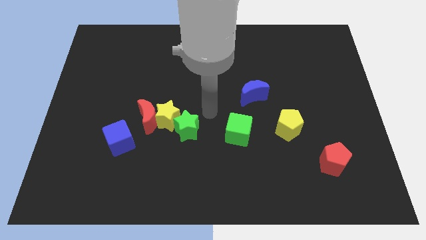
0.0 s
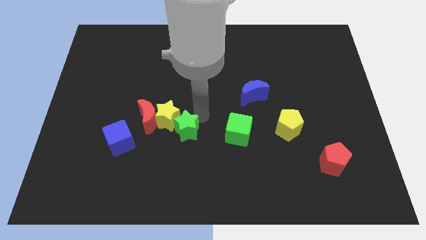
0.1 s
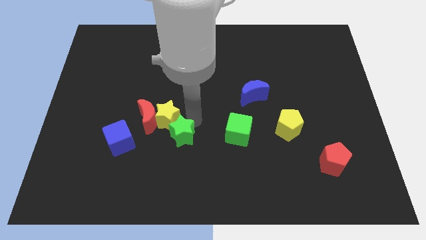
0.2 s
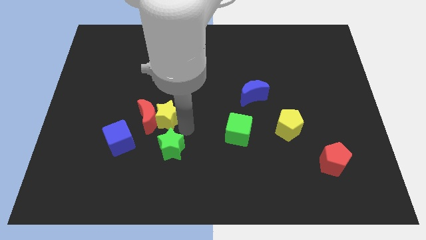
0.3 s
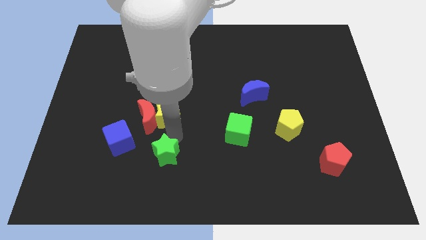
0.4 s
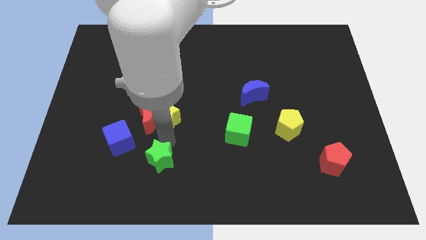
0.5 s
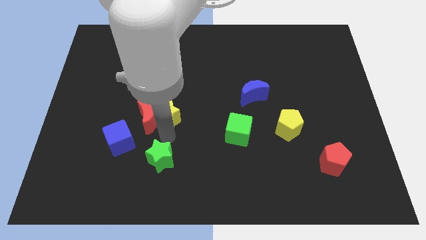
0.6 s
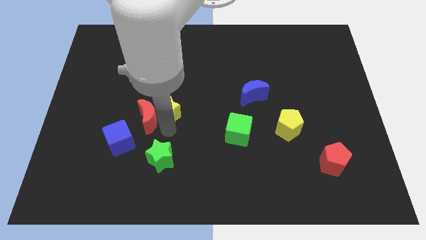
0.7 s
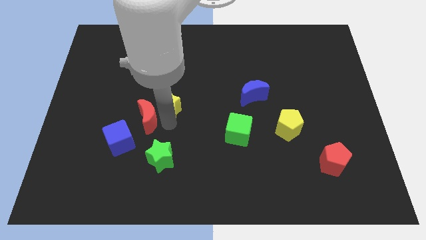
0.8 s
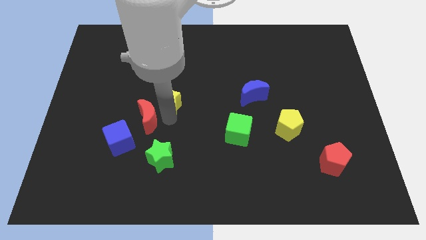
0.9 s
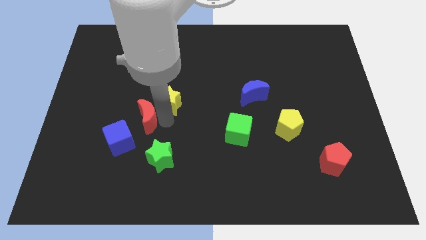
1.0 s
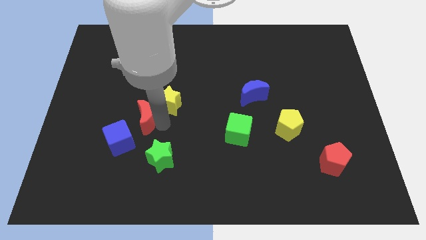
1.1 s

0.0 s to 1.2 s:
move the yellow star away from the red moon and green star

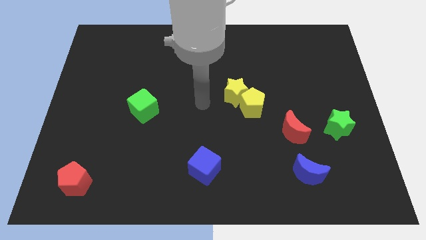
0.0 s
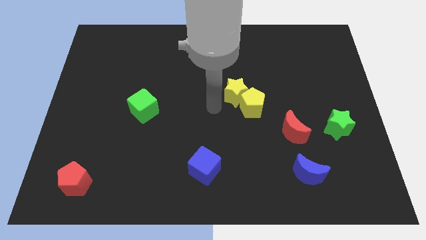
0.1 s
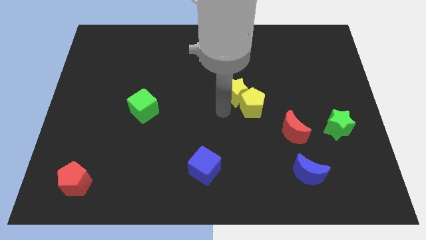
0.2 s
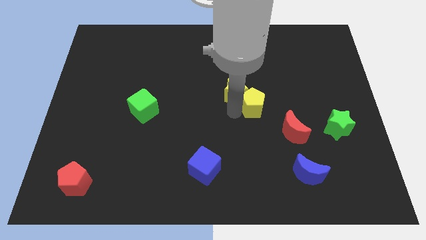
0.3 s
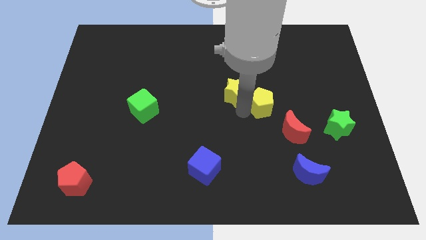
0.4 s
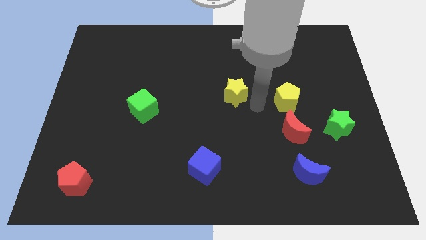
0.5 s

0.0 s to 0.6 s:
separate the yellow star from the yellow pentagon

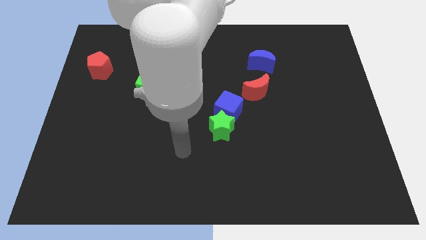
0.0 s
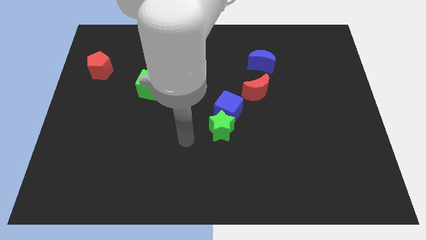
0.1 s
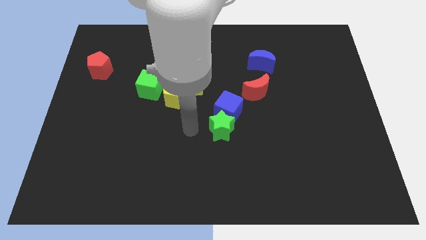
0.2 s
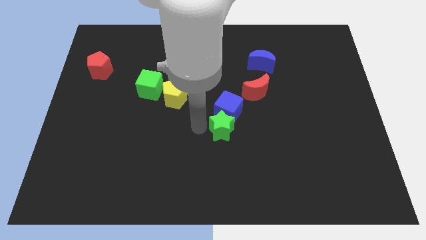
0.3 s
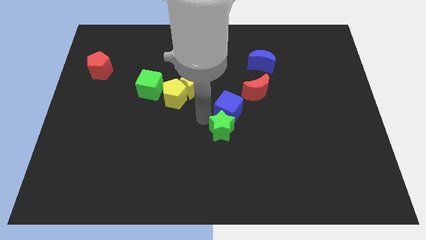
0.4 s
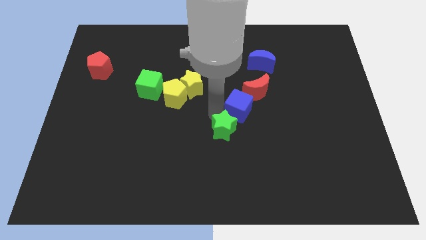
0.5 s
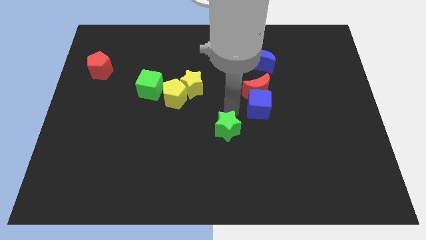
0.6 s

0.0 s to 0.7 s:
pull the green star apart from the blue cube

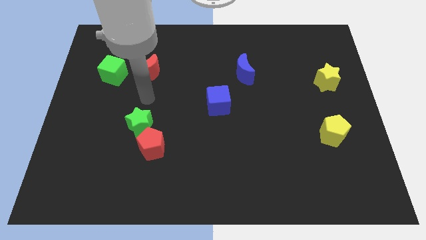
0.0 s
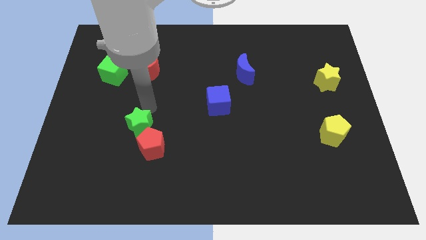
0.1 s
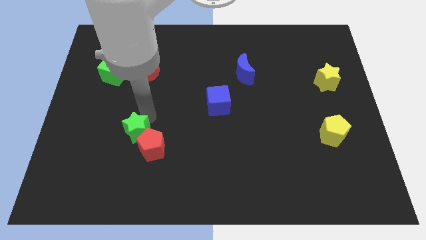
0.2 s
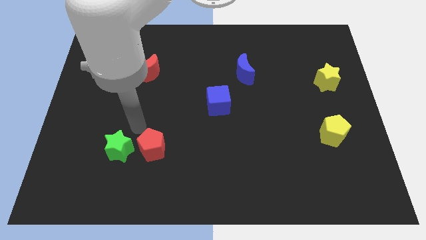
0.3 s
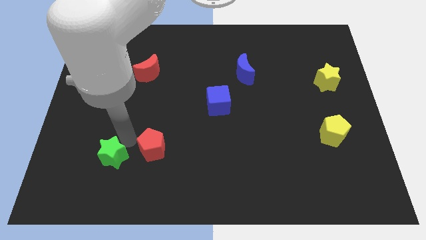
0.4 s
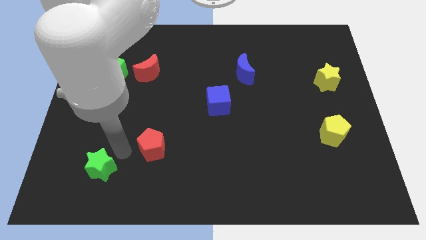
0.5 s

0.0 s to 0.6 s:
move the red pentagon away from the green star

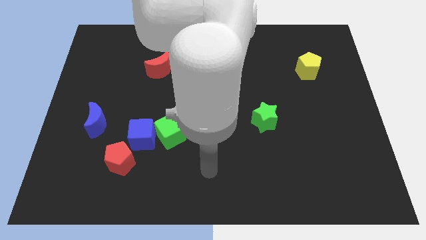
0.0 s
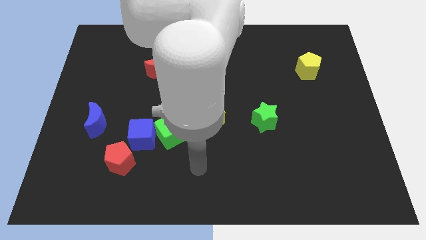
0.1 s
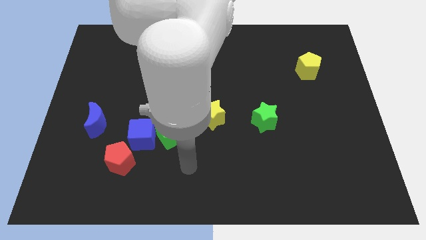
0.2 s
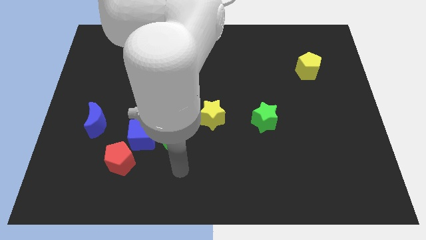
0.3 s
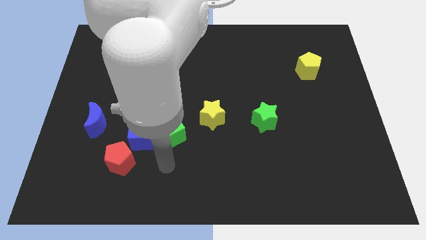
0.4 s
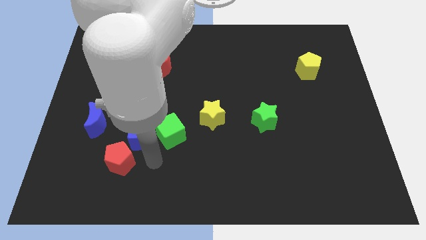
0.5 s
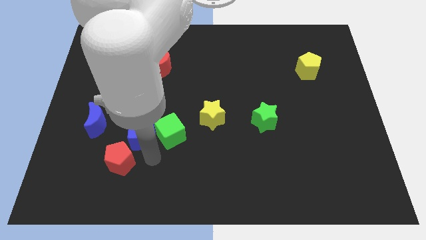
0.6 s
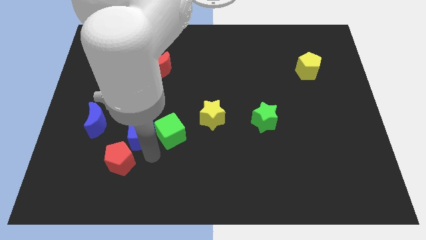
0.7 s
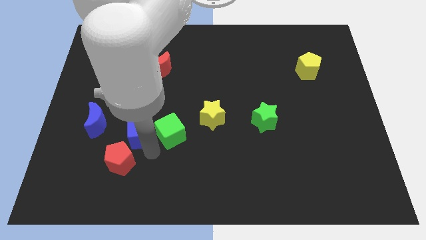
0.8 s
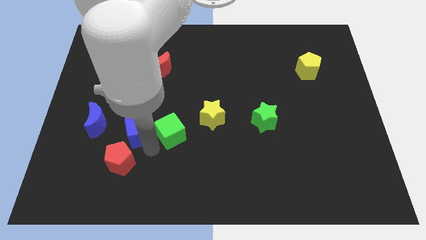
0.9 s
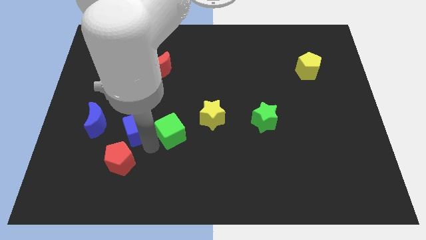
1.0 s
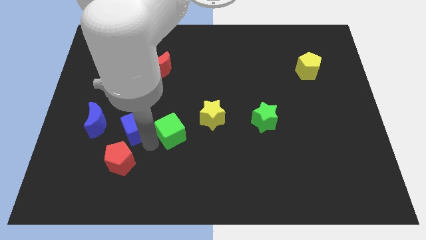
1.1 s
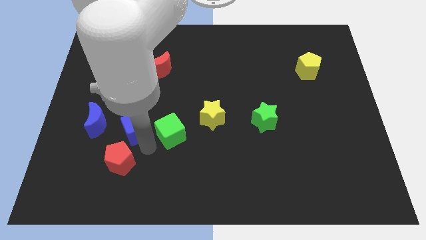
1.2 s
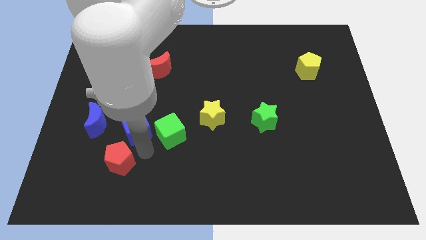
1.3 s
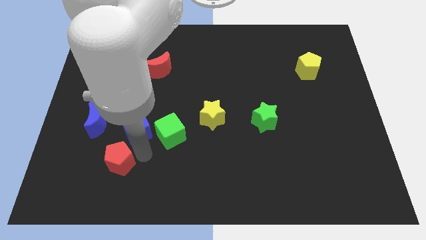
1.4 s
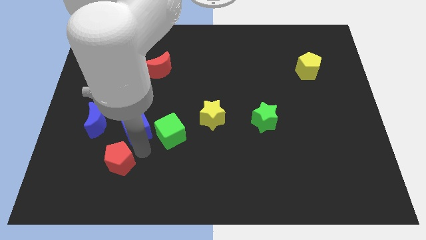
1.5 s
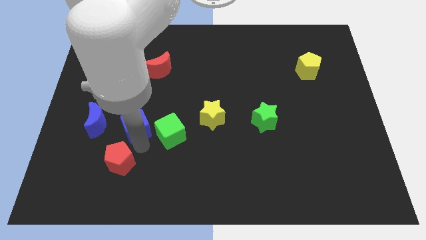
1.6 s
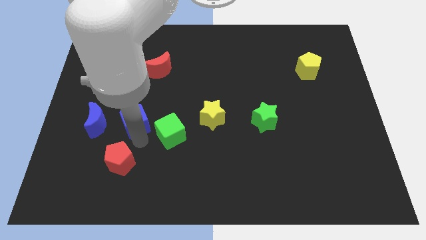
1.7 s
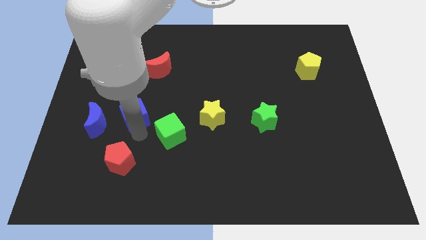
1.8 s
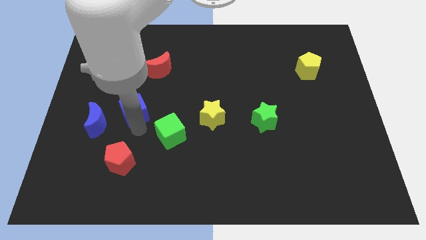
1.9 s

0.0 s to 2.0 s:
separate the blue cube from the green cube and red pentagon

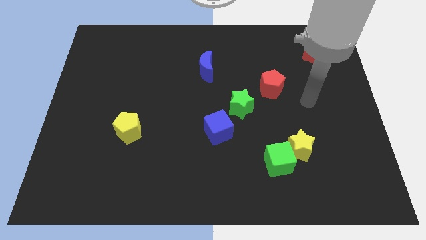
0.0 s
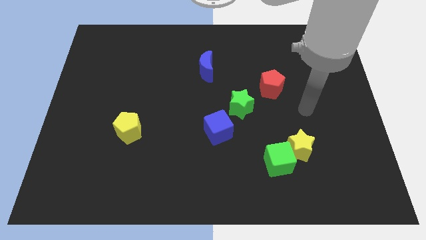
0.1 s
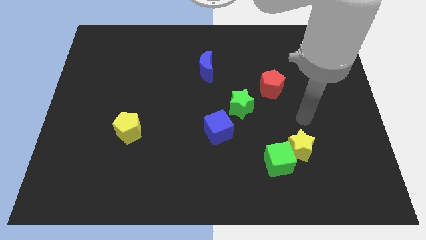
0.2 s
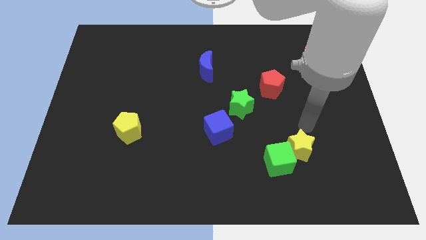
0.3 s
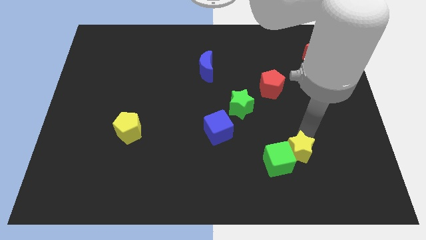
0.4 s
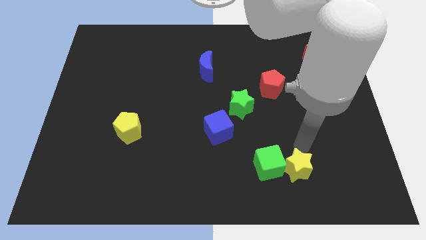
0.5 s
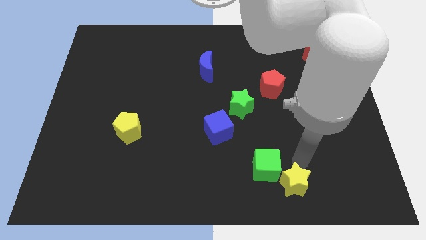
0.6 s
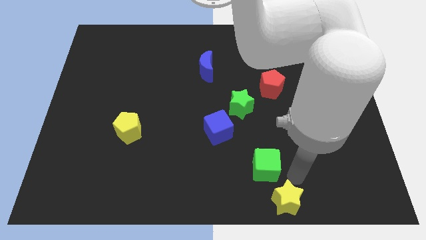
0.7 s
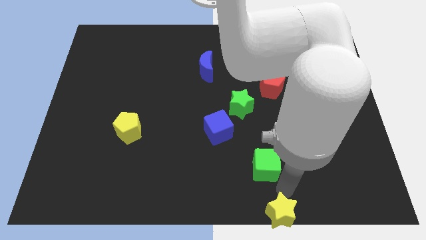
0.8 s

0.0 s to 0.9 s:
move the green cube away from the yellow star

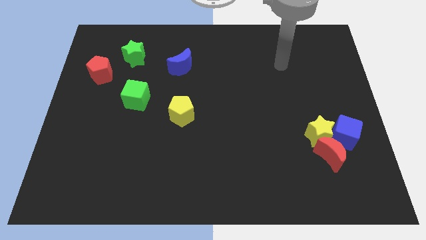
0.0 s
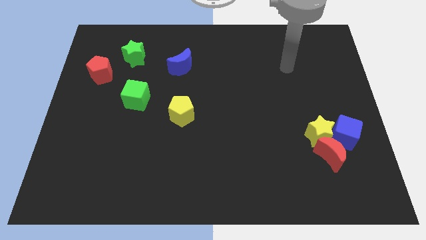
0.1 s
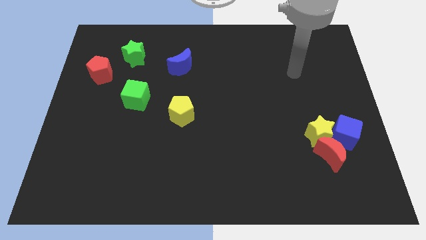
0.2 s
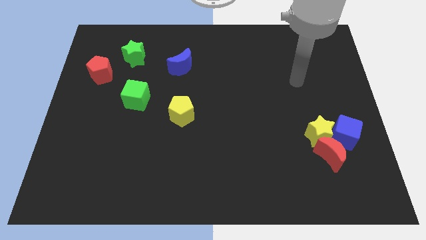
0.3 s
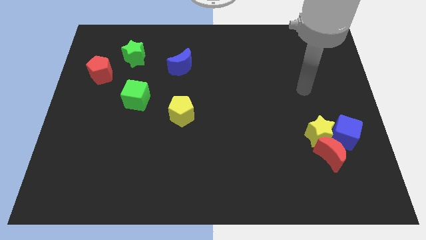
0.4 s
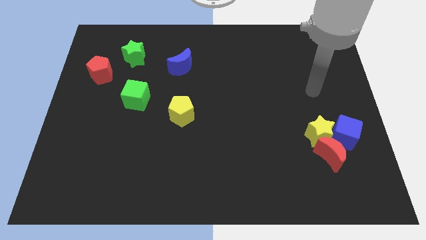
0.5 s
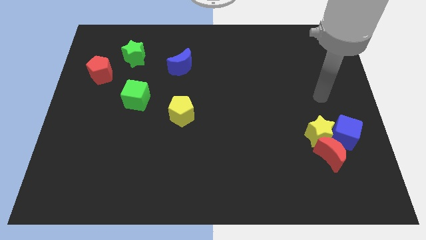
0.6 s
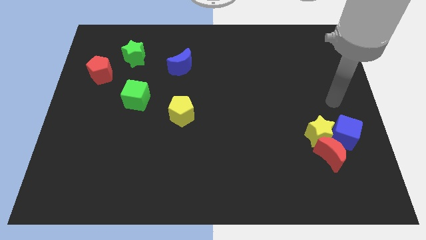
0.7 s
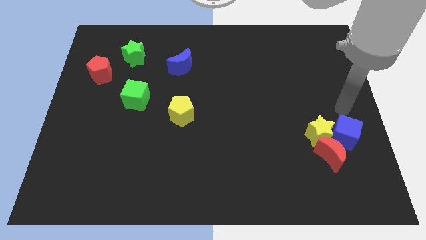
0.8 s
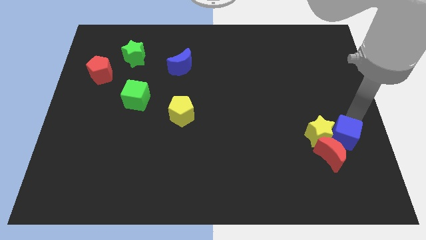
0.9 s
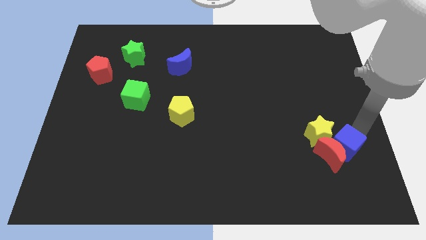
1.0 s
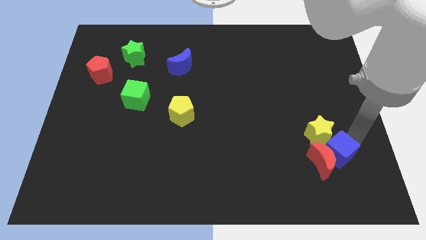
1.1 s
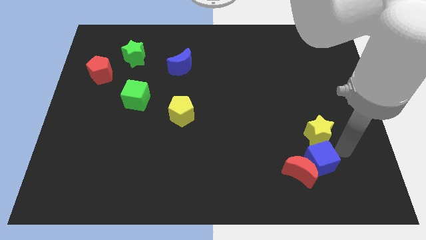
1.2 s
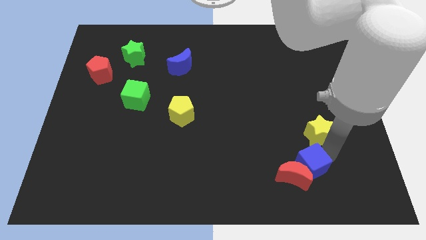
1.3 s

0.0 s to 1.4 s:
pull the yellow star apart from the red moon and blue cube

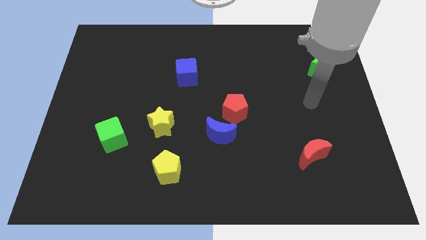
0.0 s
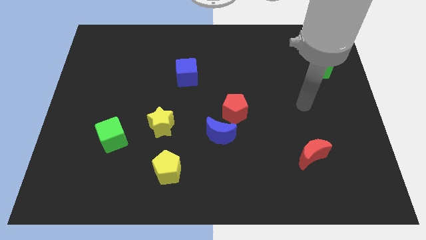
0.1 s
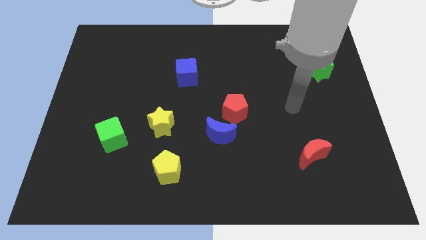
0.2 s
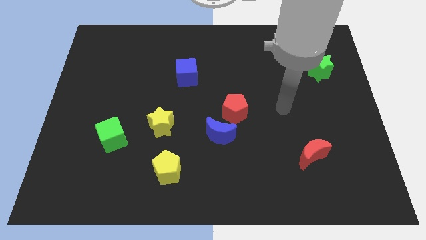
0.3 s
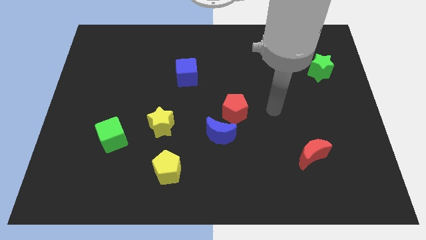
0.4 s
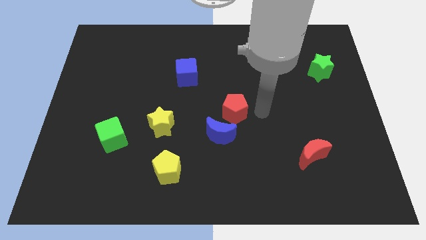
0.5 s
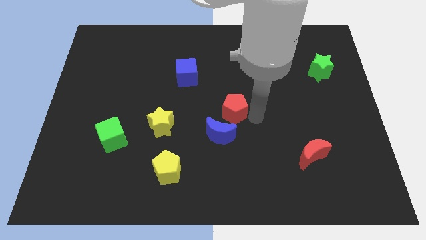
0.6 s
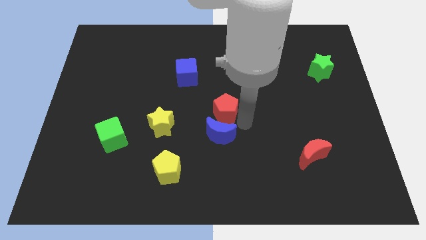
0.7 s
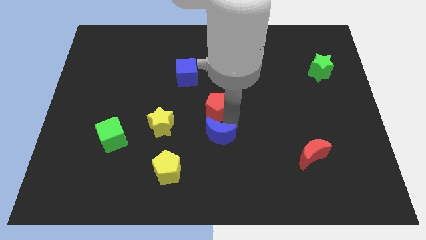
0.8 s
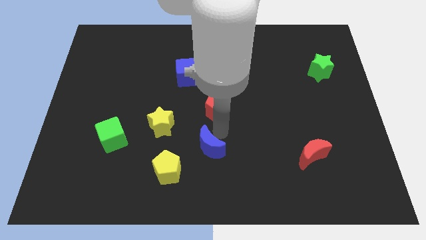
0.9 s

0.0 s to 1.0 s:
separate the red pentagon from the blue moon

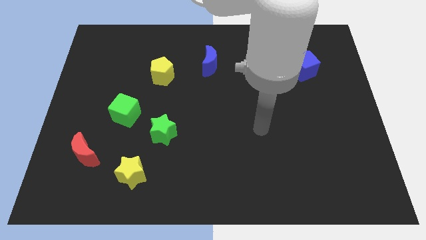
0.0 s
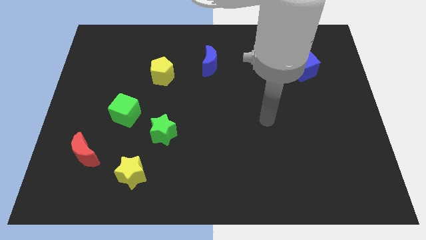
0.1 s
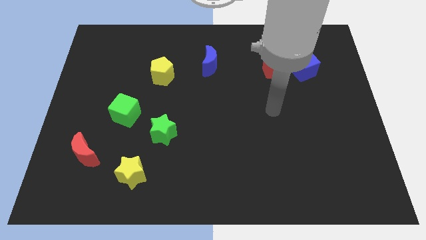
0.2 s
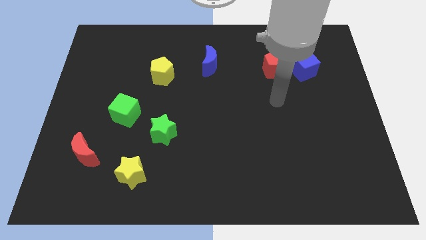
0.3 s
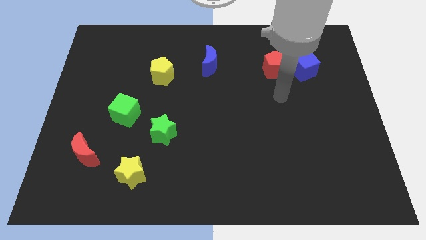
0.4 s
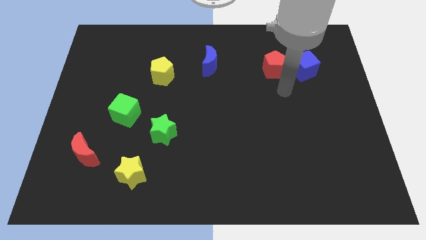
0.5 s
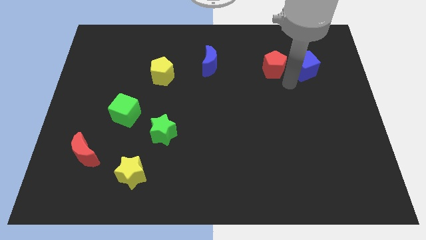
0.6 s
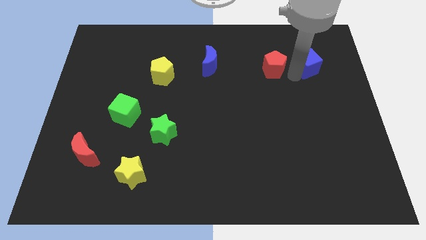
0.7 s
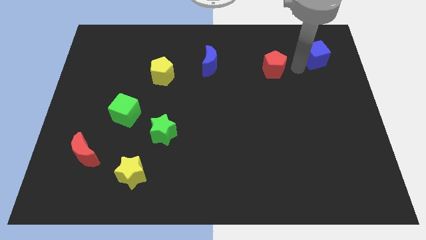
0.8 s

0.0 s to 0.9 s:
move the red pentagon away from the blue cube

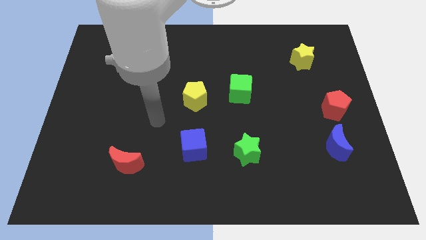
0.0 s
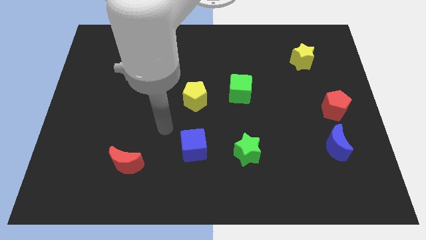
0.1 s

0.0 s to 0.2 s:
move the red pentagon away from the blue moon
